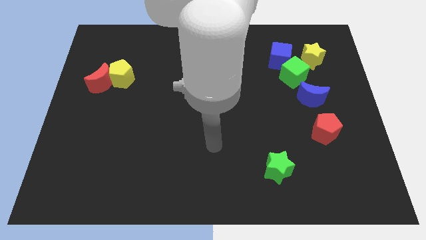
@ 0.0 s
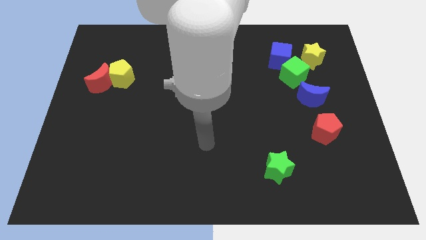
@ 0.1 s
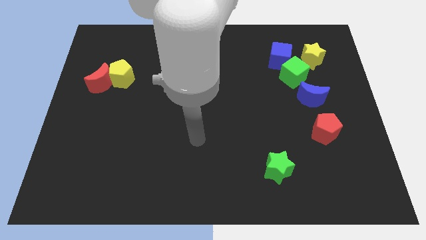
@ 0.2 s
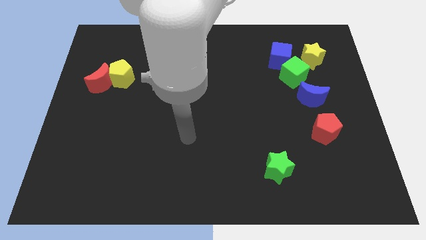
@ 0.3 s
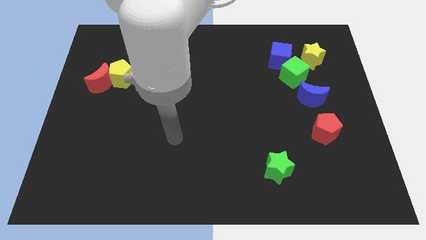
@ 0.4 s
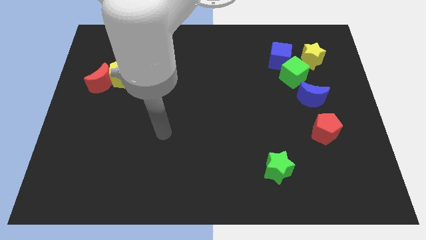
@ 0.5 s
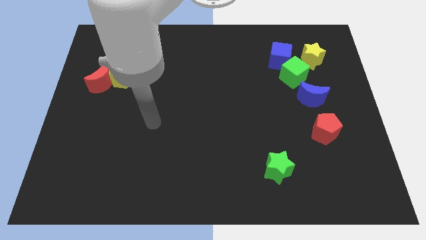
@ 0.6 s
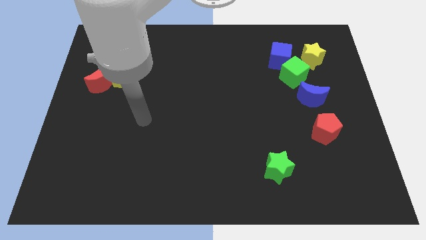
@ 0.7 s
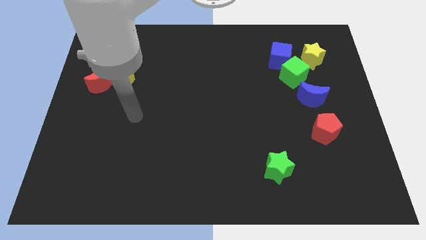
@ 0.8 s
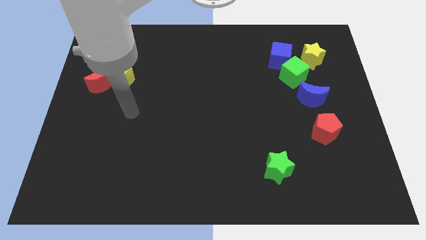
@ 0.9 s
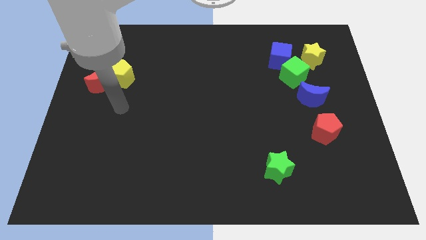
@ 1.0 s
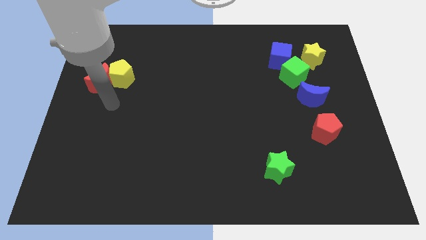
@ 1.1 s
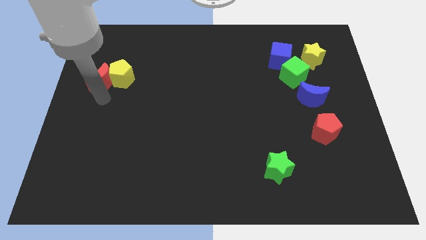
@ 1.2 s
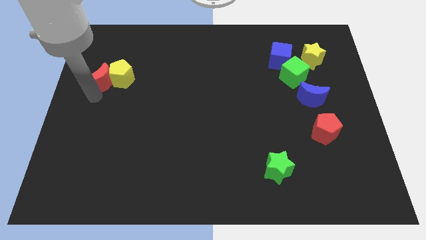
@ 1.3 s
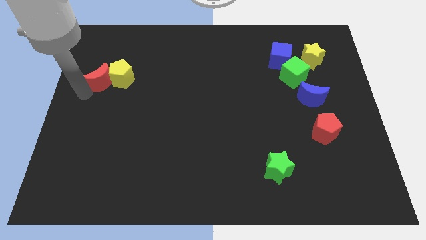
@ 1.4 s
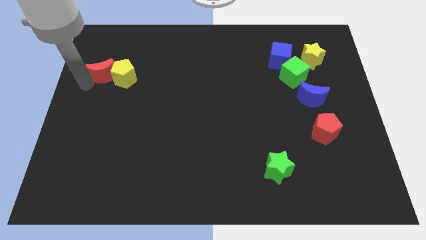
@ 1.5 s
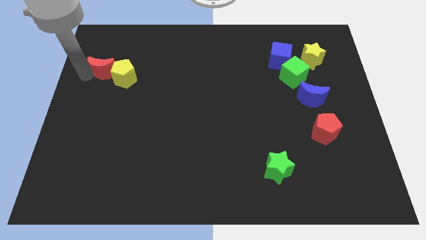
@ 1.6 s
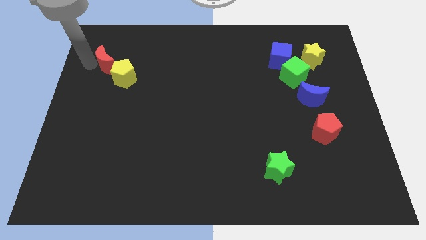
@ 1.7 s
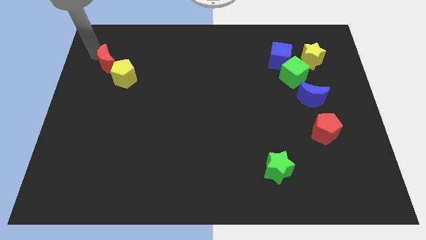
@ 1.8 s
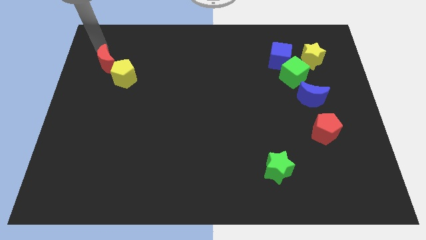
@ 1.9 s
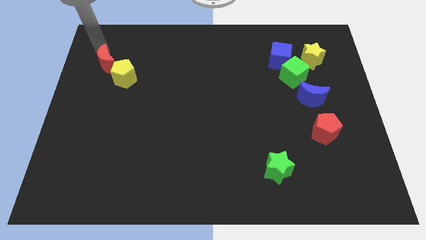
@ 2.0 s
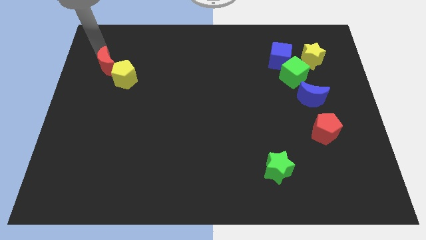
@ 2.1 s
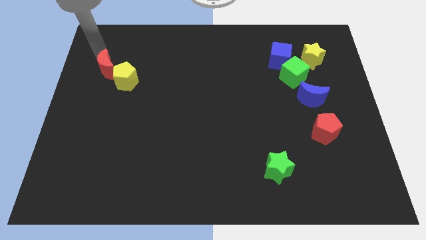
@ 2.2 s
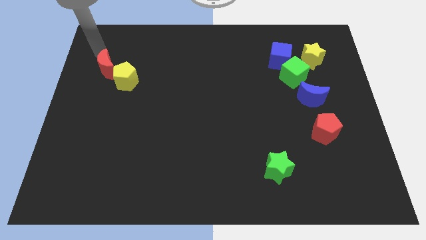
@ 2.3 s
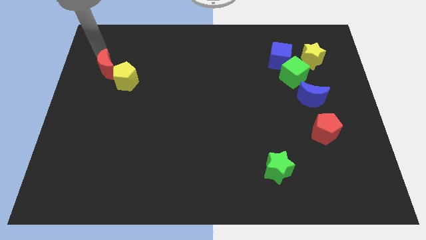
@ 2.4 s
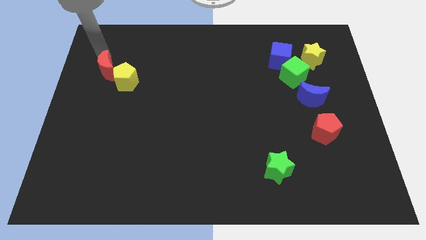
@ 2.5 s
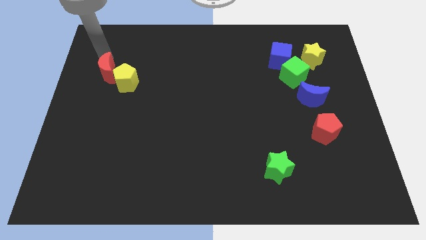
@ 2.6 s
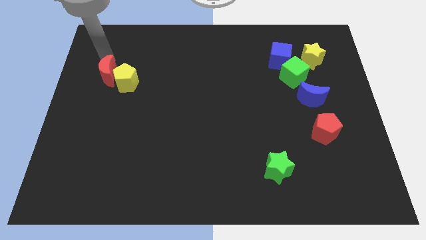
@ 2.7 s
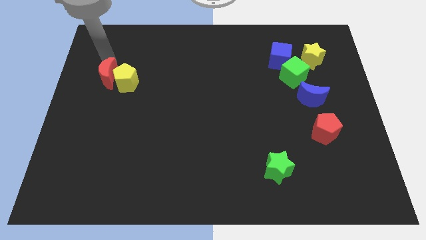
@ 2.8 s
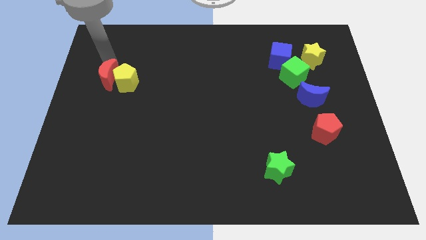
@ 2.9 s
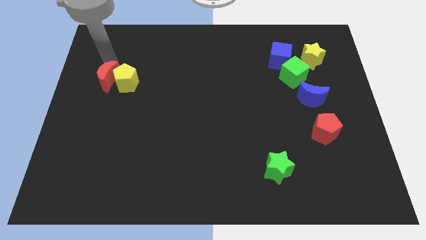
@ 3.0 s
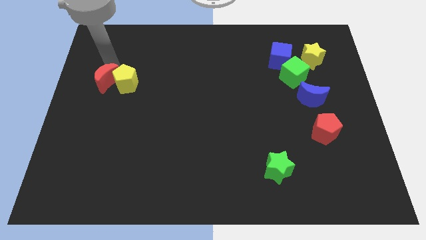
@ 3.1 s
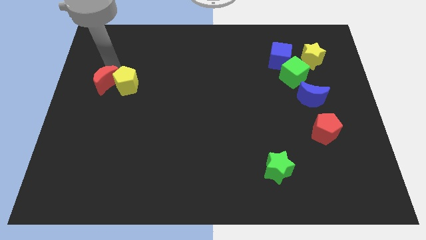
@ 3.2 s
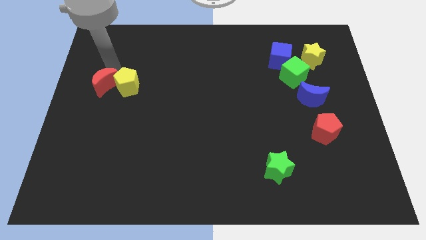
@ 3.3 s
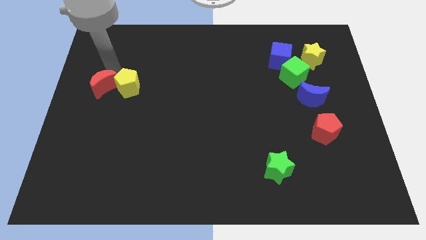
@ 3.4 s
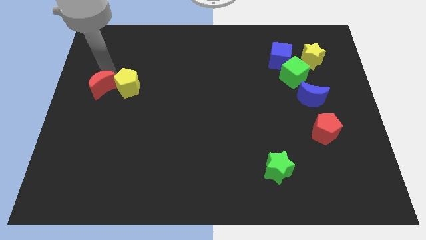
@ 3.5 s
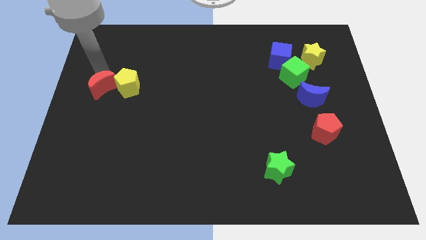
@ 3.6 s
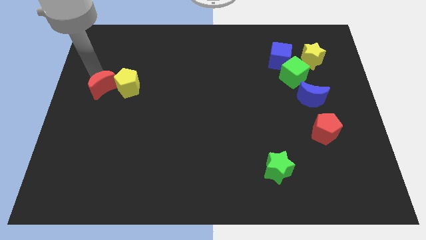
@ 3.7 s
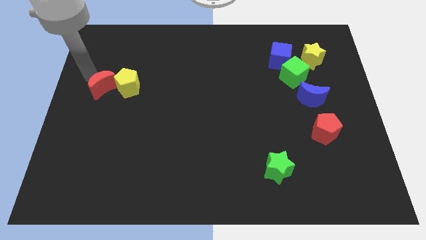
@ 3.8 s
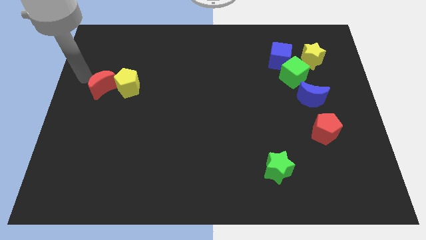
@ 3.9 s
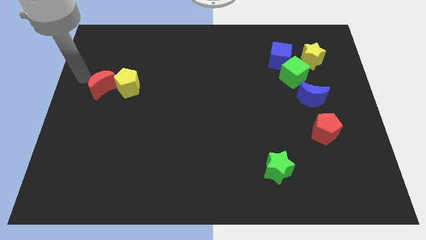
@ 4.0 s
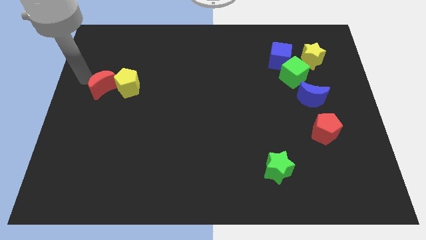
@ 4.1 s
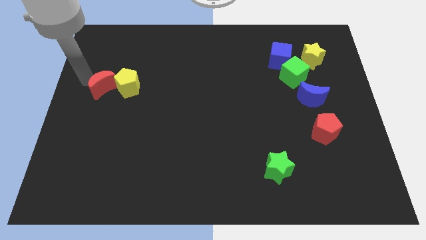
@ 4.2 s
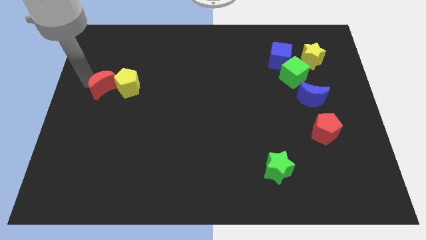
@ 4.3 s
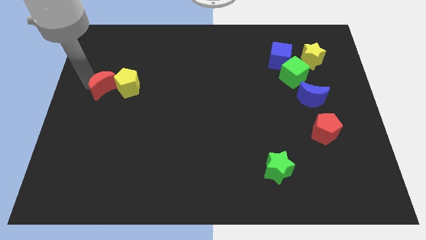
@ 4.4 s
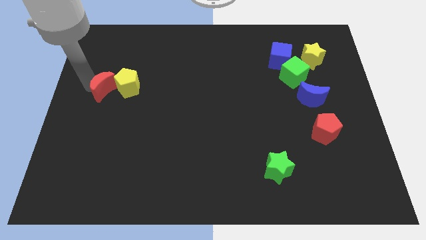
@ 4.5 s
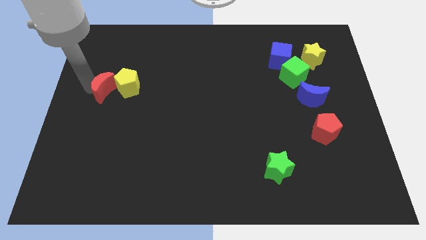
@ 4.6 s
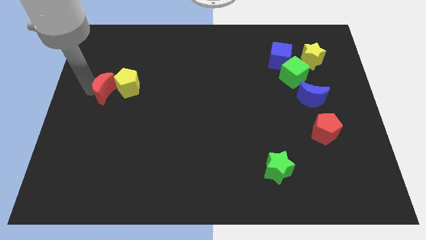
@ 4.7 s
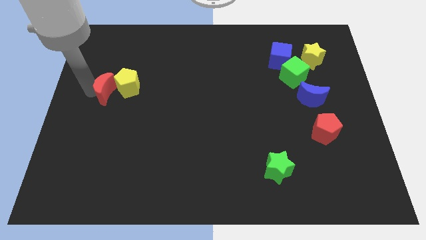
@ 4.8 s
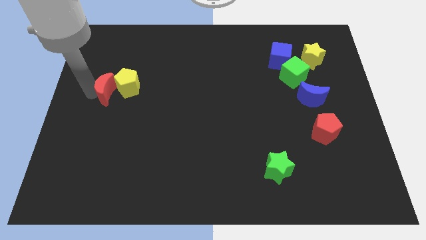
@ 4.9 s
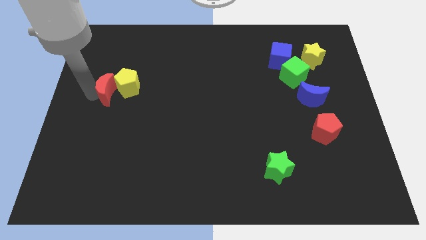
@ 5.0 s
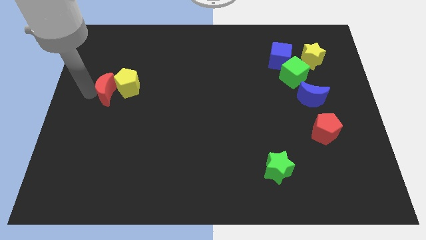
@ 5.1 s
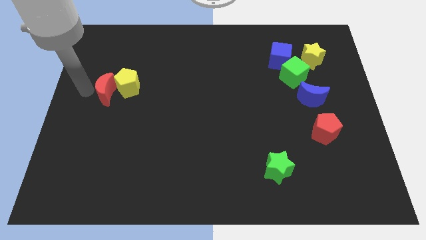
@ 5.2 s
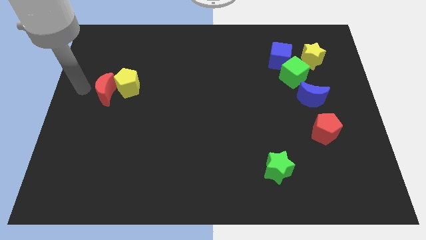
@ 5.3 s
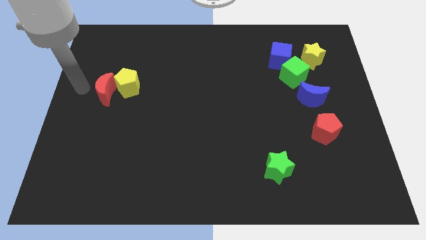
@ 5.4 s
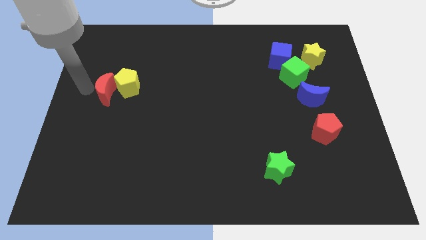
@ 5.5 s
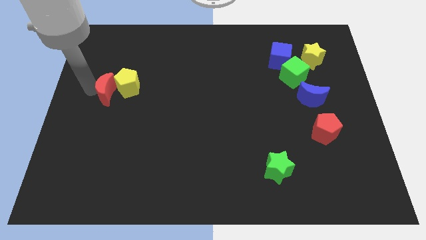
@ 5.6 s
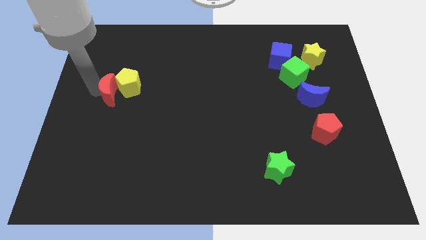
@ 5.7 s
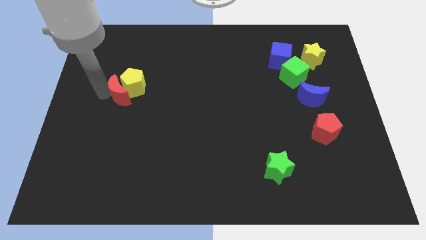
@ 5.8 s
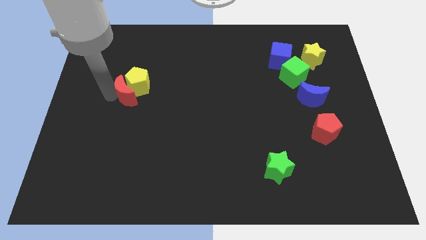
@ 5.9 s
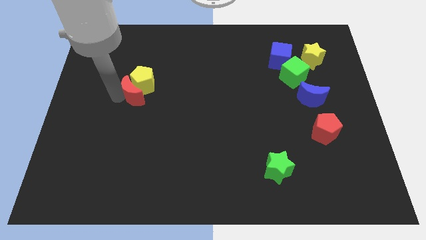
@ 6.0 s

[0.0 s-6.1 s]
move the red moon right slightly

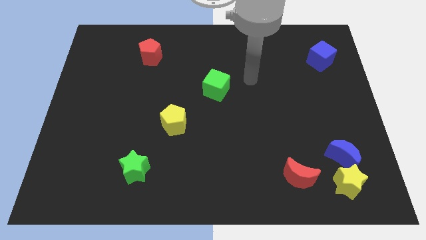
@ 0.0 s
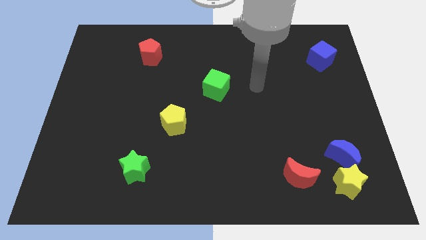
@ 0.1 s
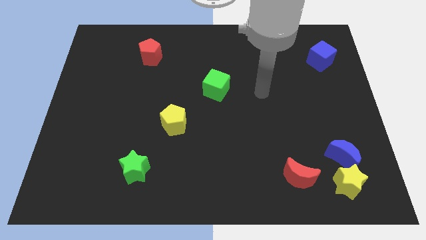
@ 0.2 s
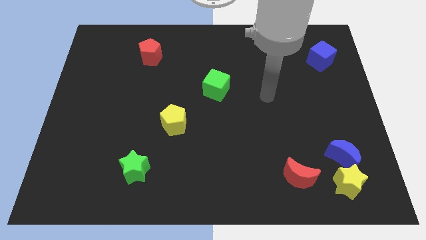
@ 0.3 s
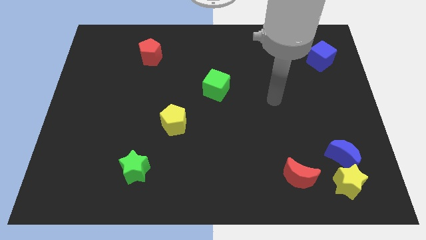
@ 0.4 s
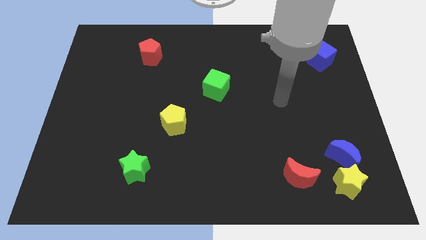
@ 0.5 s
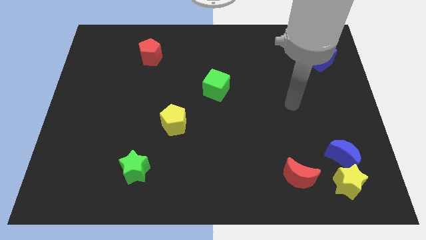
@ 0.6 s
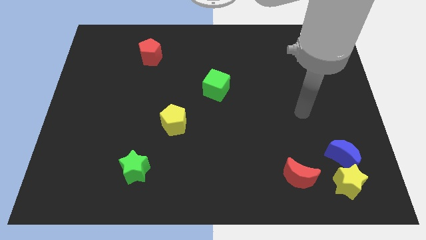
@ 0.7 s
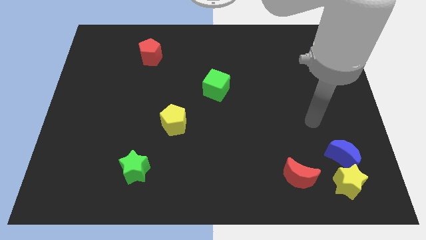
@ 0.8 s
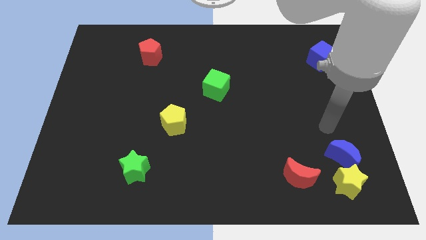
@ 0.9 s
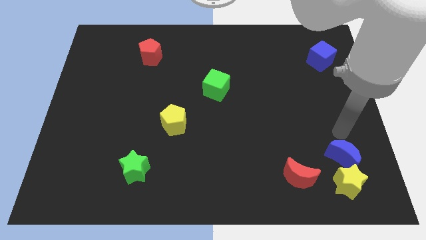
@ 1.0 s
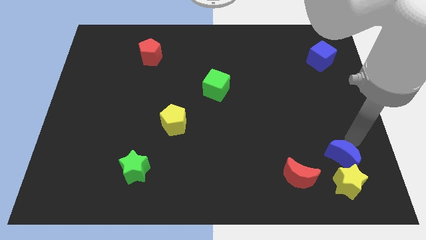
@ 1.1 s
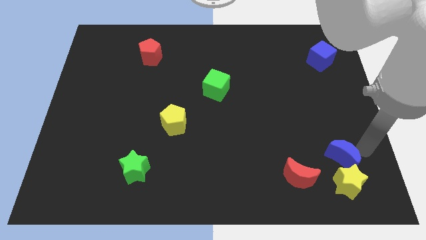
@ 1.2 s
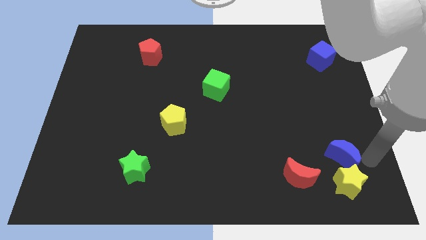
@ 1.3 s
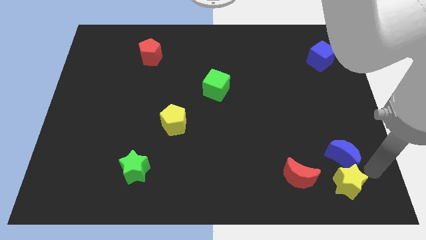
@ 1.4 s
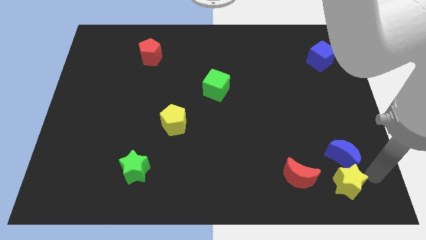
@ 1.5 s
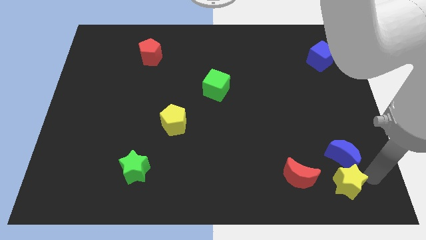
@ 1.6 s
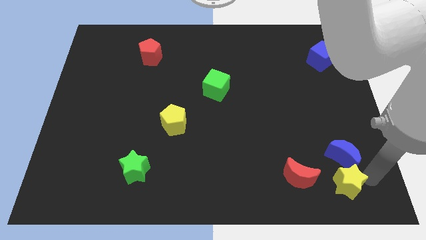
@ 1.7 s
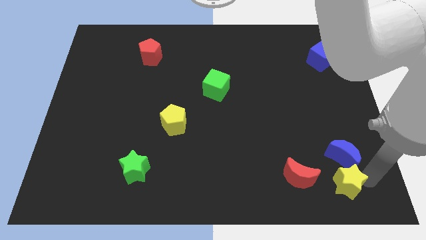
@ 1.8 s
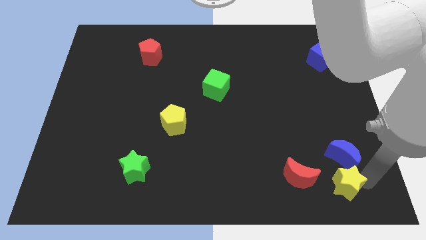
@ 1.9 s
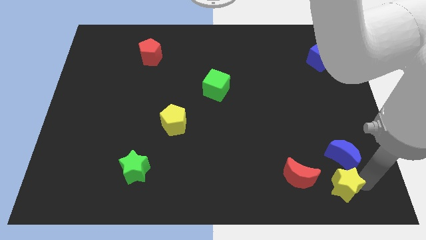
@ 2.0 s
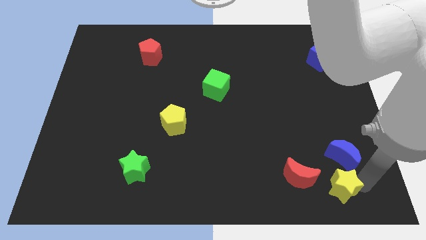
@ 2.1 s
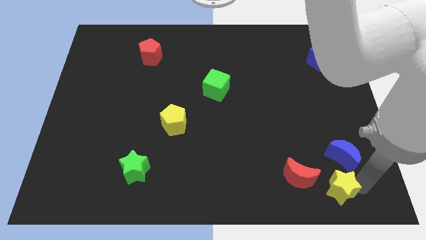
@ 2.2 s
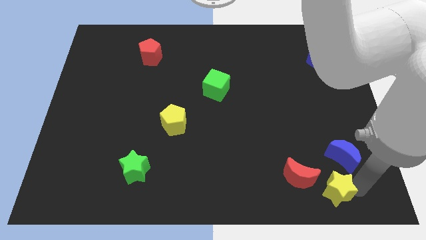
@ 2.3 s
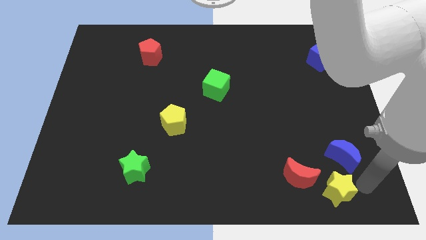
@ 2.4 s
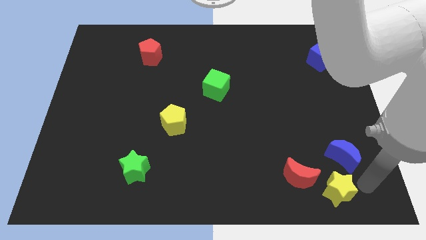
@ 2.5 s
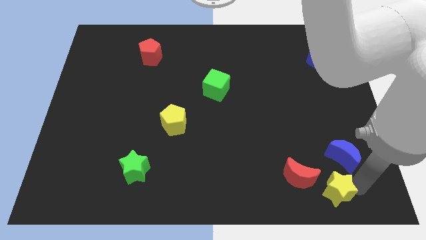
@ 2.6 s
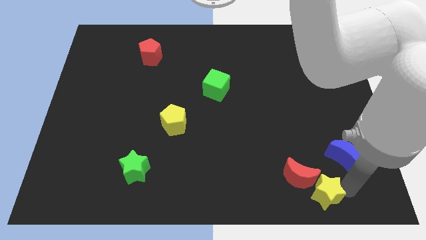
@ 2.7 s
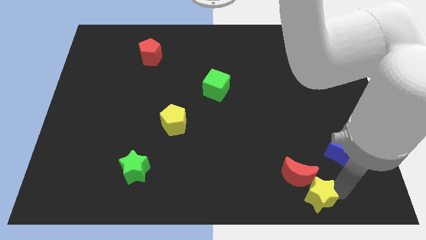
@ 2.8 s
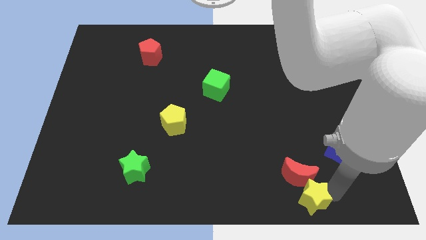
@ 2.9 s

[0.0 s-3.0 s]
slightly move the yellow star left
